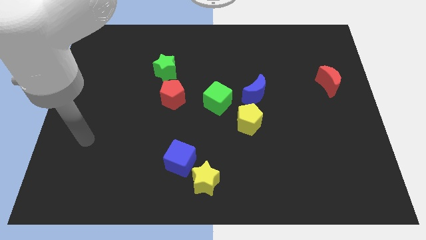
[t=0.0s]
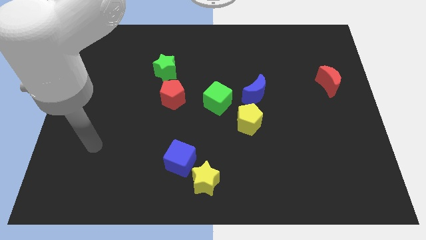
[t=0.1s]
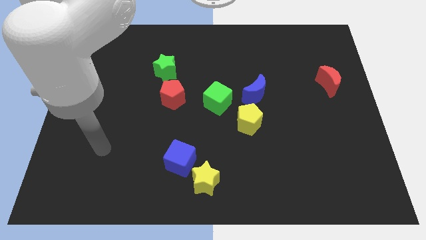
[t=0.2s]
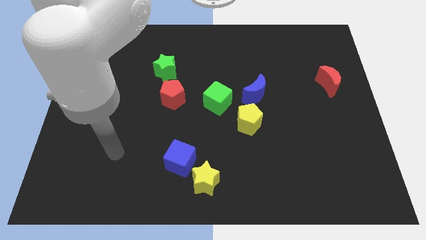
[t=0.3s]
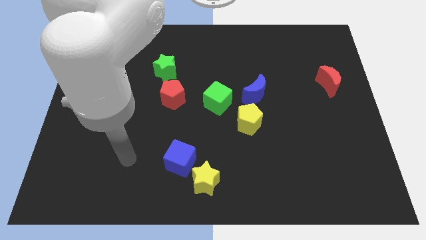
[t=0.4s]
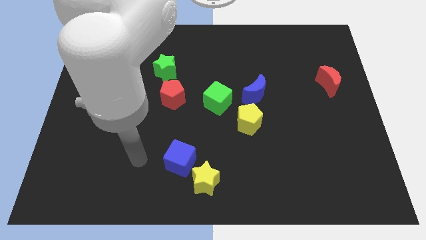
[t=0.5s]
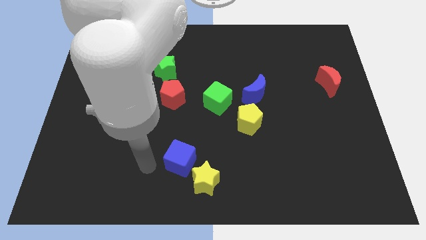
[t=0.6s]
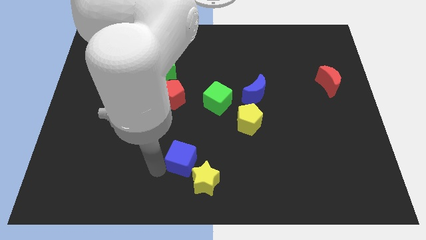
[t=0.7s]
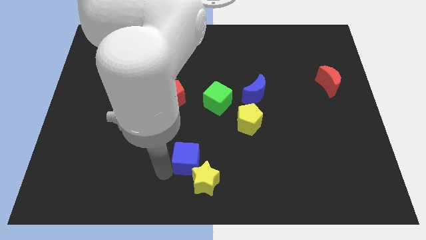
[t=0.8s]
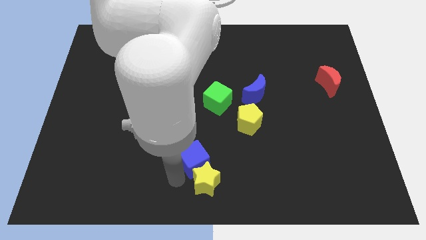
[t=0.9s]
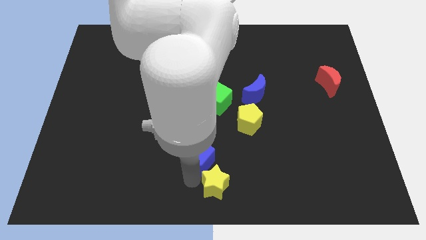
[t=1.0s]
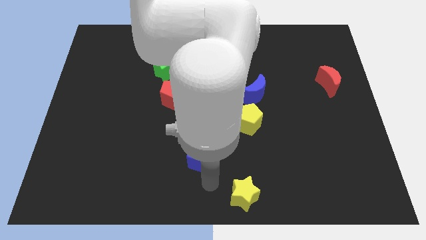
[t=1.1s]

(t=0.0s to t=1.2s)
pull the blue cube apart from the yellow star

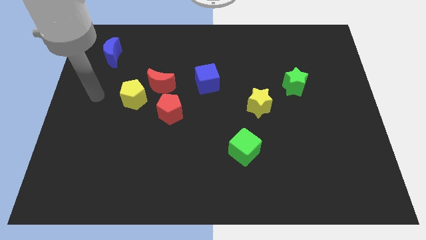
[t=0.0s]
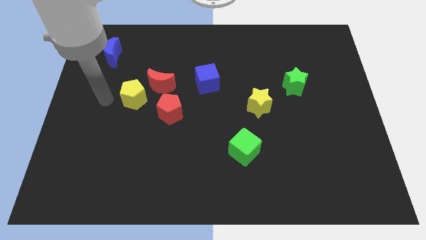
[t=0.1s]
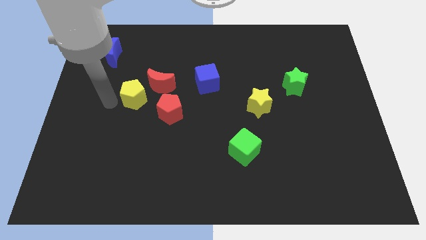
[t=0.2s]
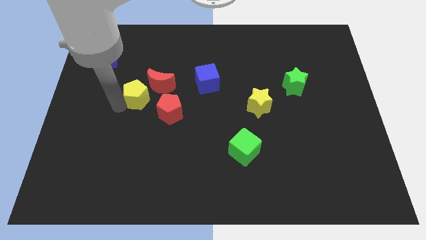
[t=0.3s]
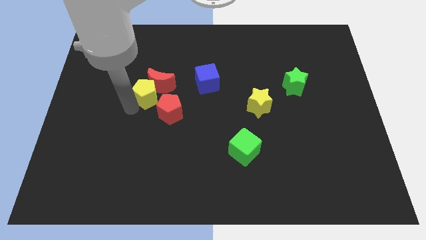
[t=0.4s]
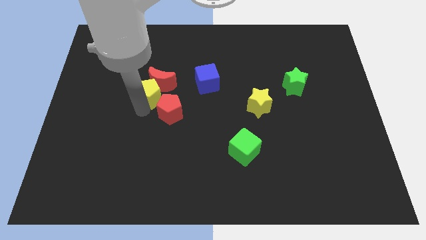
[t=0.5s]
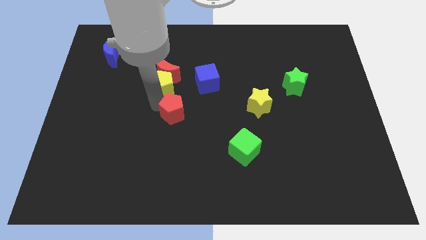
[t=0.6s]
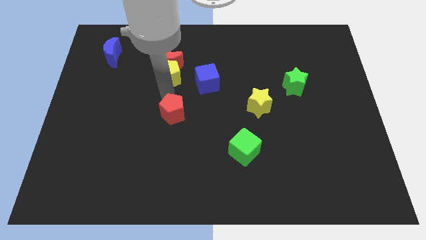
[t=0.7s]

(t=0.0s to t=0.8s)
separate the red moon from the yellow pentagon and red pentagon

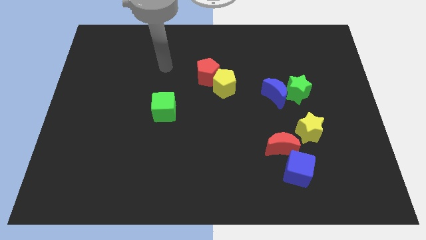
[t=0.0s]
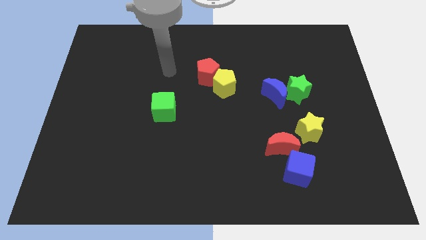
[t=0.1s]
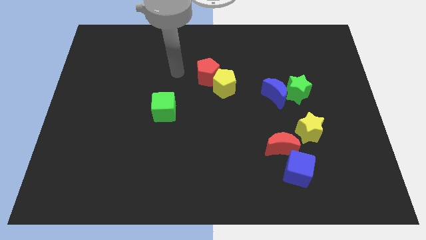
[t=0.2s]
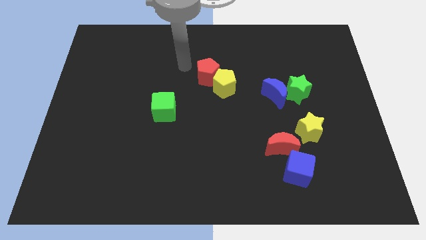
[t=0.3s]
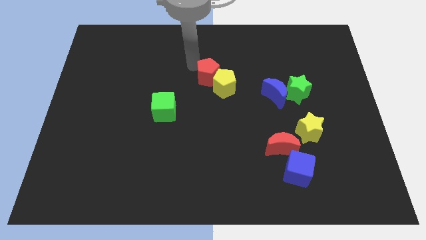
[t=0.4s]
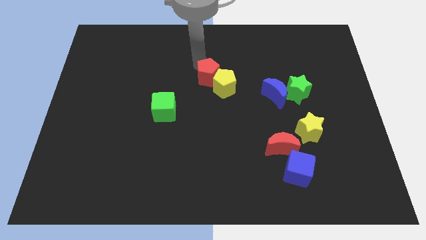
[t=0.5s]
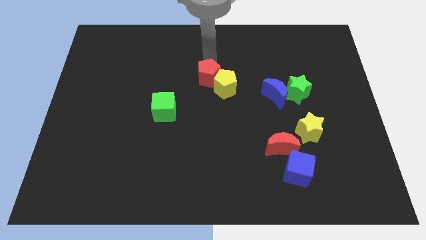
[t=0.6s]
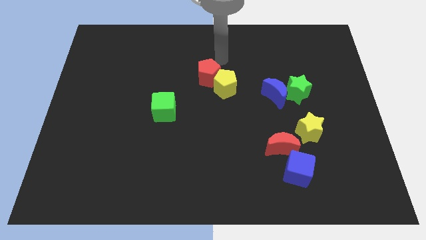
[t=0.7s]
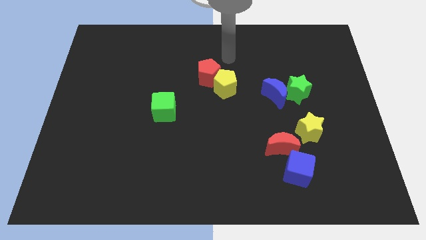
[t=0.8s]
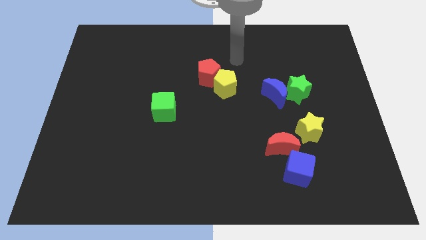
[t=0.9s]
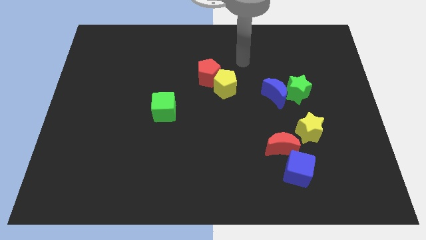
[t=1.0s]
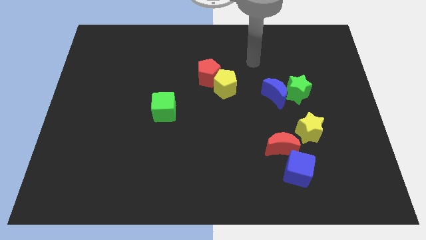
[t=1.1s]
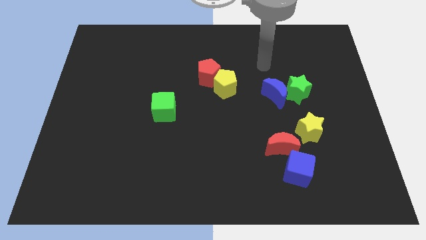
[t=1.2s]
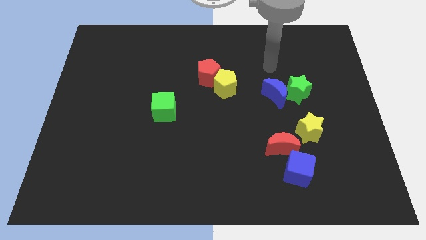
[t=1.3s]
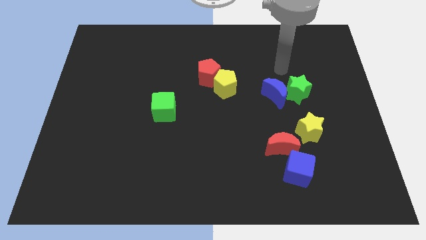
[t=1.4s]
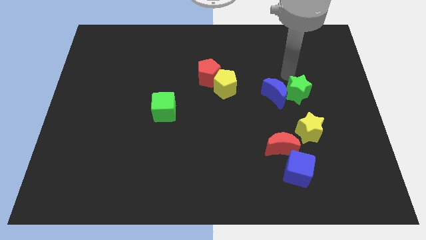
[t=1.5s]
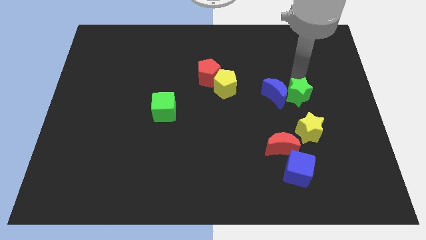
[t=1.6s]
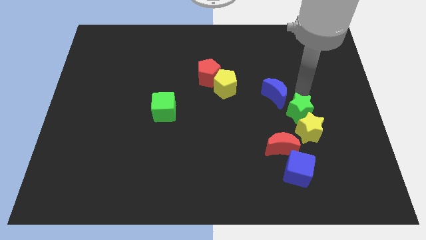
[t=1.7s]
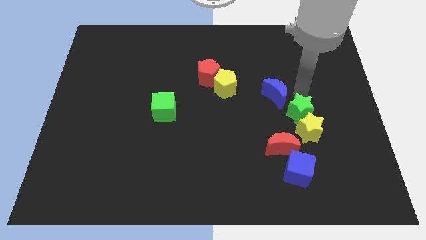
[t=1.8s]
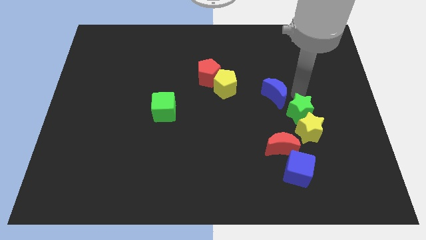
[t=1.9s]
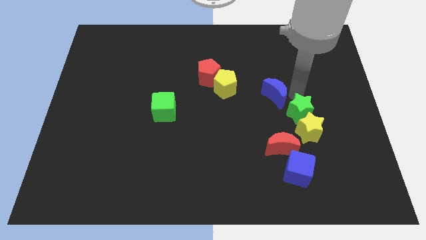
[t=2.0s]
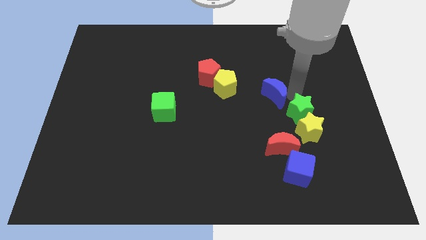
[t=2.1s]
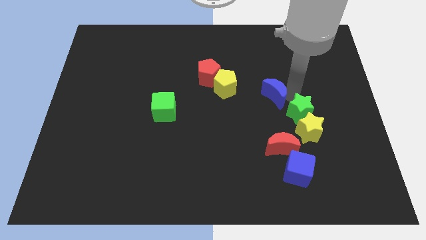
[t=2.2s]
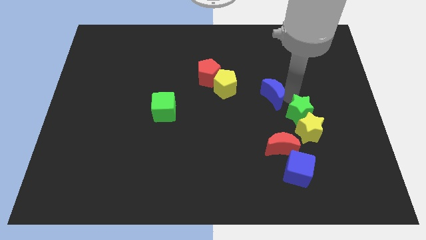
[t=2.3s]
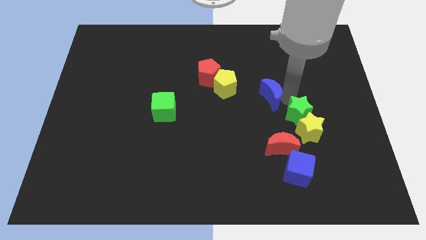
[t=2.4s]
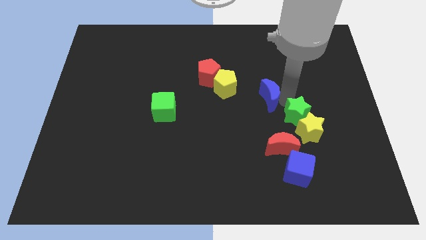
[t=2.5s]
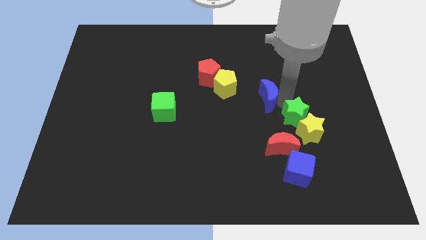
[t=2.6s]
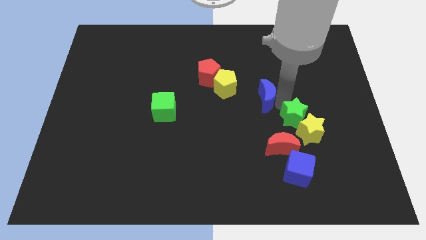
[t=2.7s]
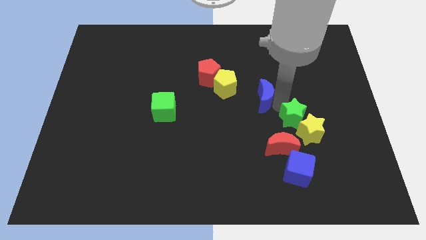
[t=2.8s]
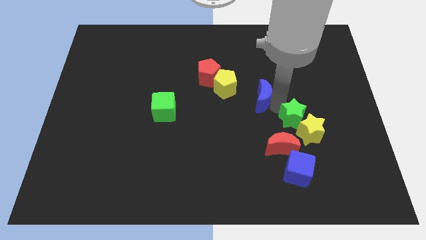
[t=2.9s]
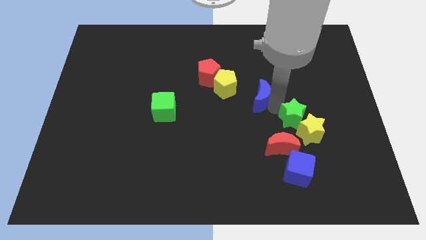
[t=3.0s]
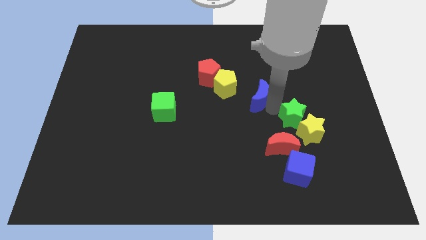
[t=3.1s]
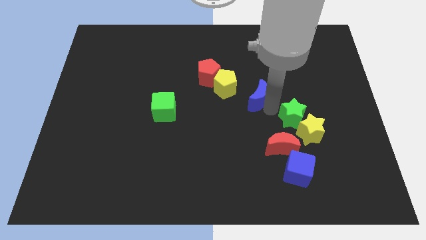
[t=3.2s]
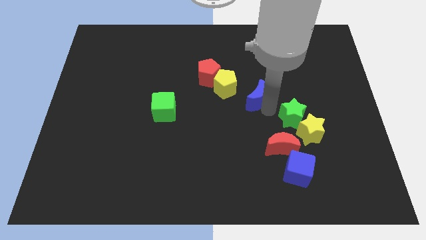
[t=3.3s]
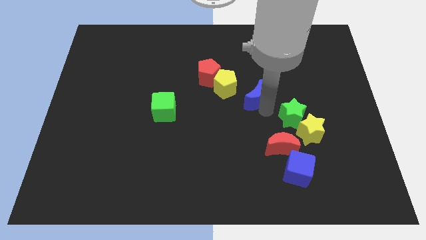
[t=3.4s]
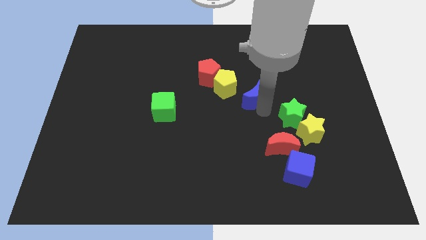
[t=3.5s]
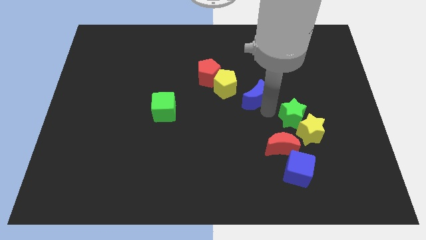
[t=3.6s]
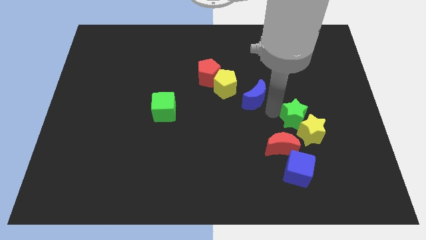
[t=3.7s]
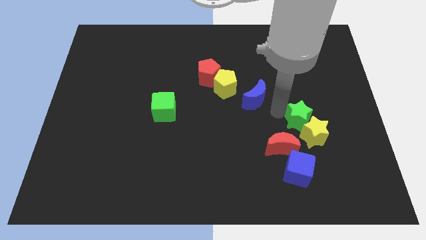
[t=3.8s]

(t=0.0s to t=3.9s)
move the blue moon away from the green star

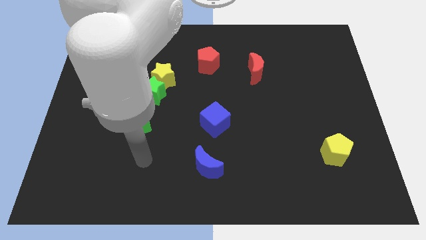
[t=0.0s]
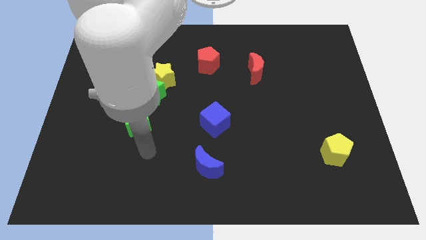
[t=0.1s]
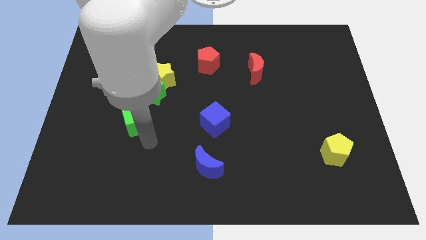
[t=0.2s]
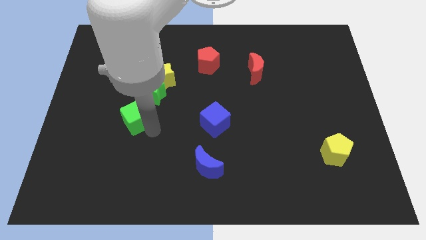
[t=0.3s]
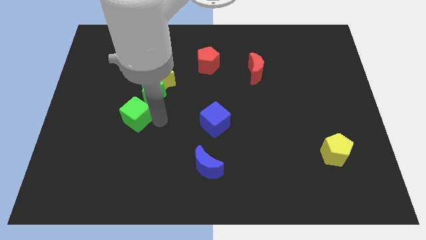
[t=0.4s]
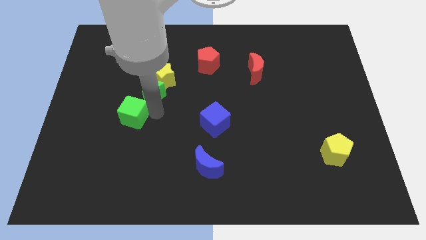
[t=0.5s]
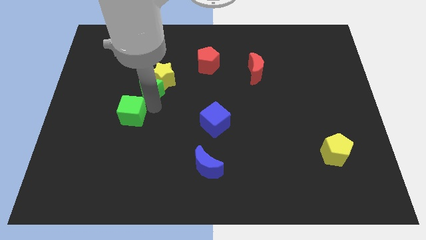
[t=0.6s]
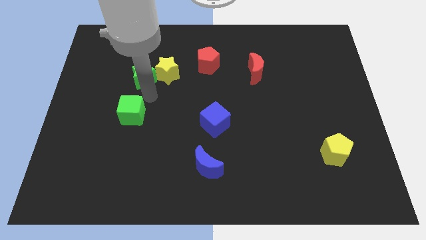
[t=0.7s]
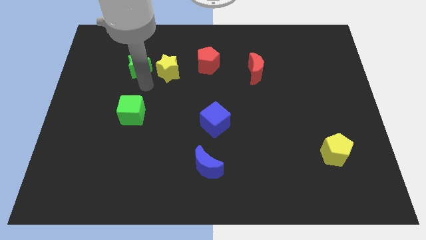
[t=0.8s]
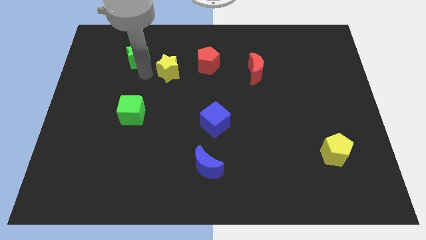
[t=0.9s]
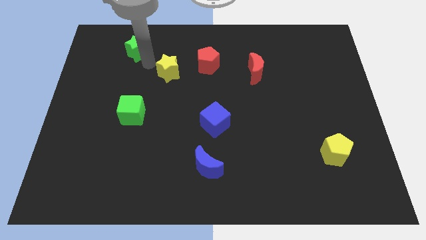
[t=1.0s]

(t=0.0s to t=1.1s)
separate the yellow star from the green star

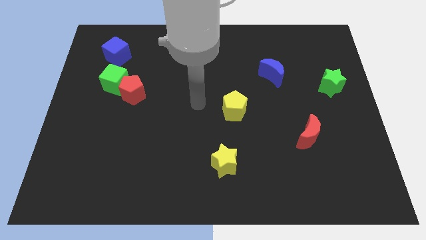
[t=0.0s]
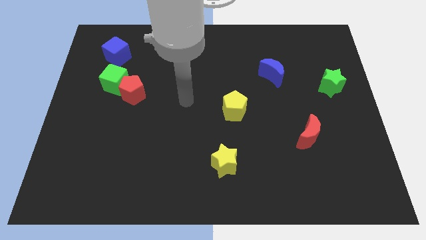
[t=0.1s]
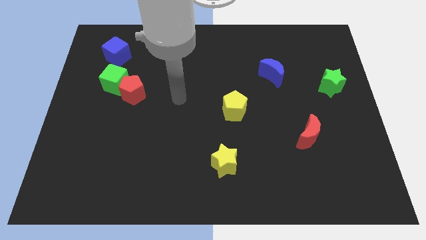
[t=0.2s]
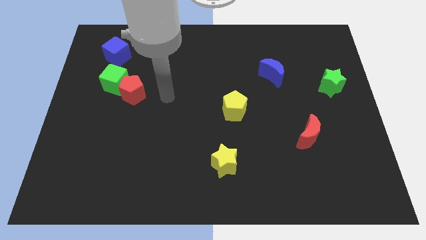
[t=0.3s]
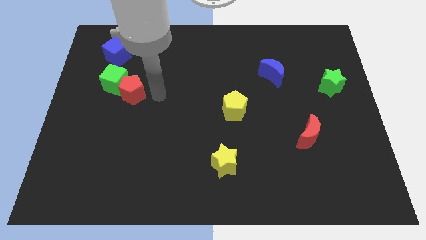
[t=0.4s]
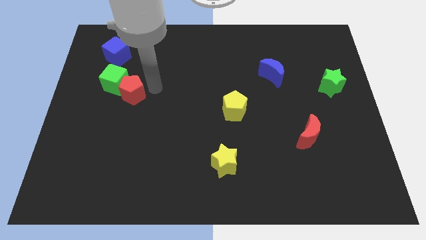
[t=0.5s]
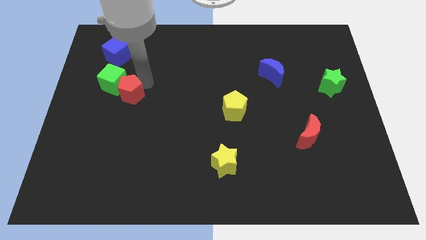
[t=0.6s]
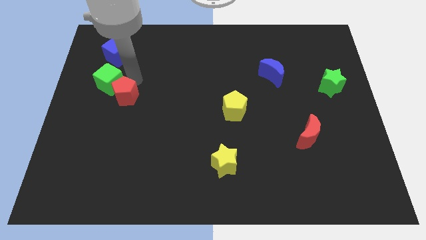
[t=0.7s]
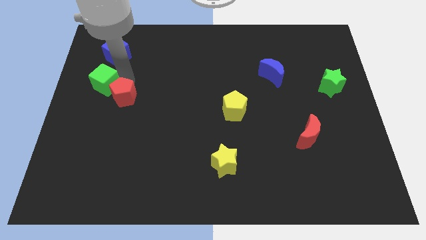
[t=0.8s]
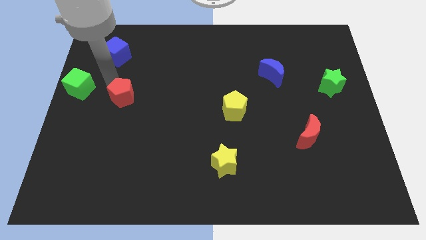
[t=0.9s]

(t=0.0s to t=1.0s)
separate the red pentagon from the green cube

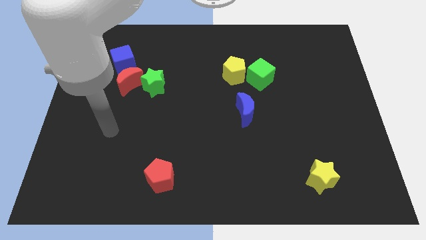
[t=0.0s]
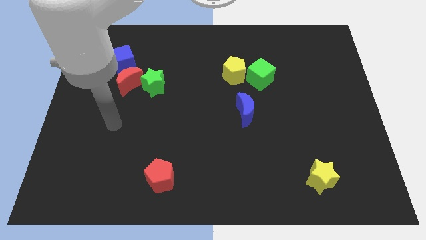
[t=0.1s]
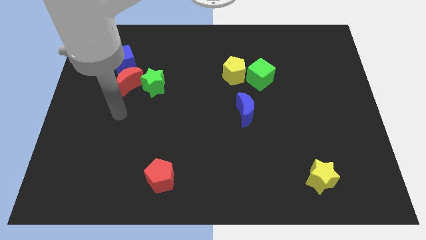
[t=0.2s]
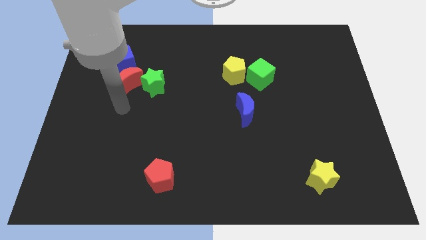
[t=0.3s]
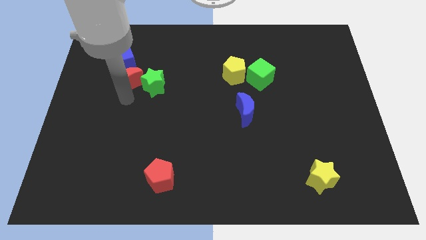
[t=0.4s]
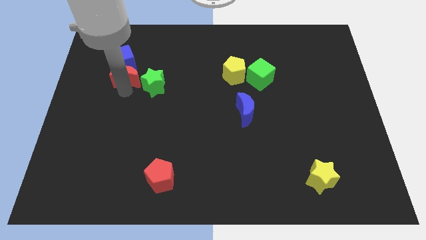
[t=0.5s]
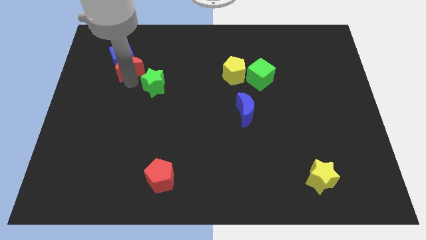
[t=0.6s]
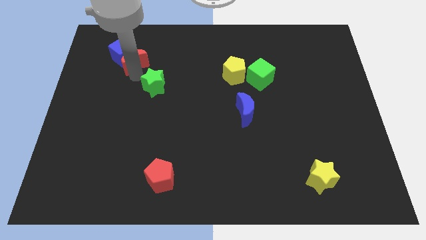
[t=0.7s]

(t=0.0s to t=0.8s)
separate the green star from the red moon

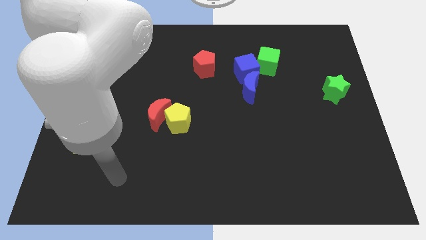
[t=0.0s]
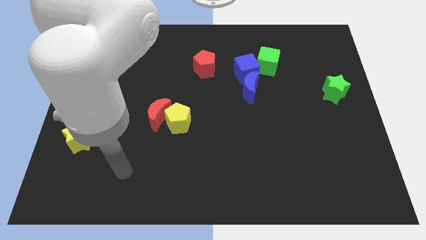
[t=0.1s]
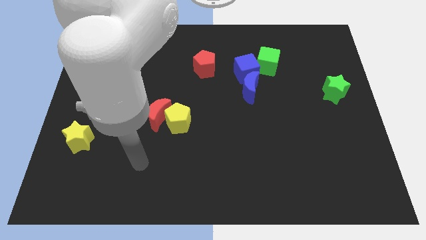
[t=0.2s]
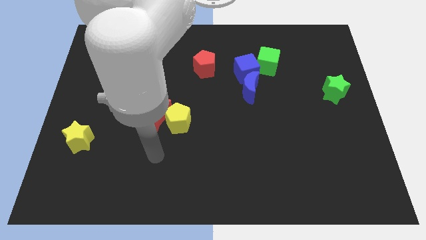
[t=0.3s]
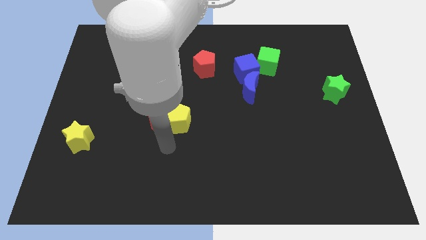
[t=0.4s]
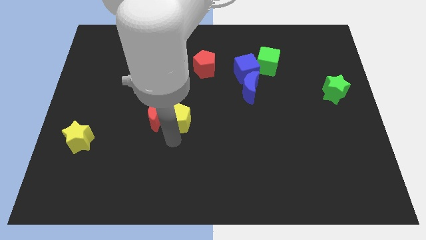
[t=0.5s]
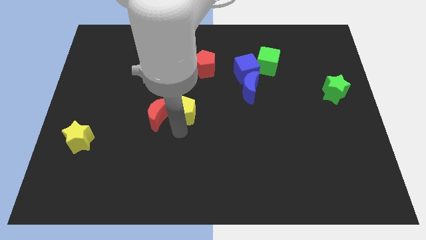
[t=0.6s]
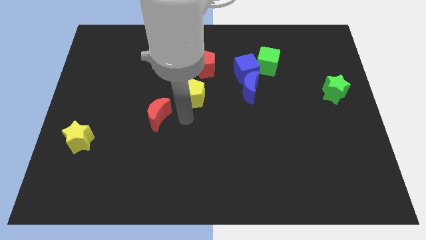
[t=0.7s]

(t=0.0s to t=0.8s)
pull the red moon apart from the yellow pentagon
